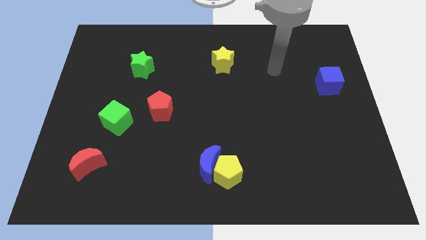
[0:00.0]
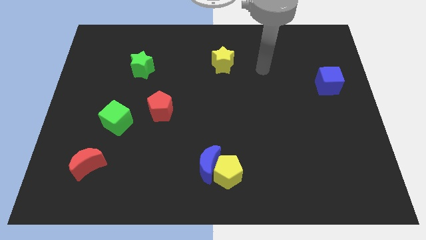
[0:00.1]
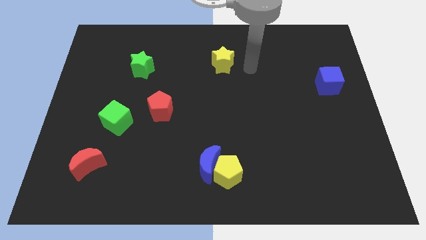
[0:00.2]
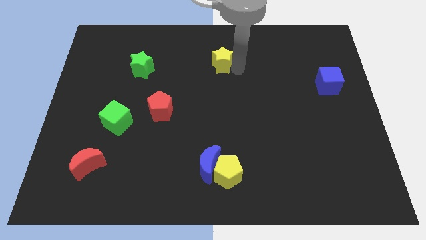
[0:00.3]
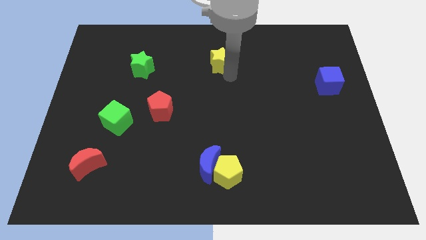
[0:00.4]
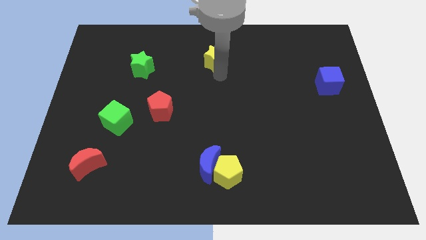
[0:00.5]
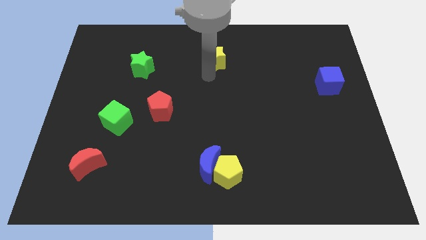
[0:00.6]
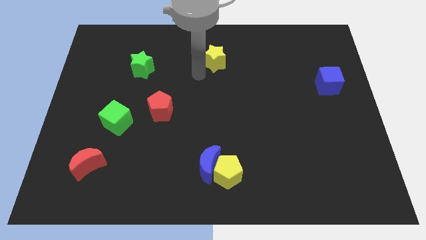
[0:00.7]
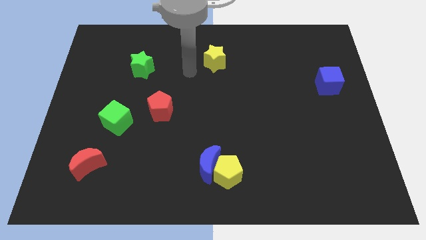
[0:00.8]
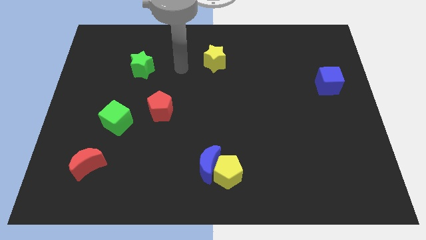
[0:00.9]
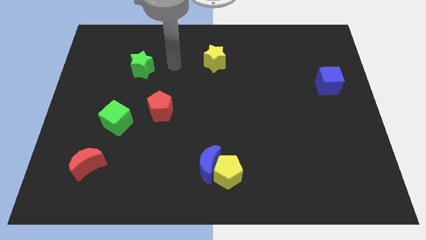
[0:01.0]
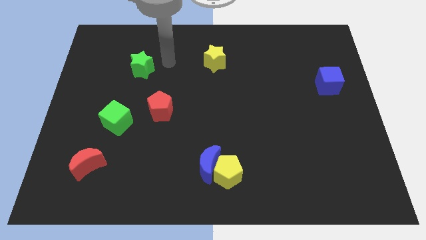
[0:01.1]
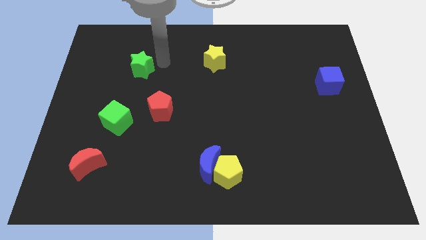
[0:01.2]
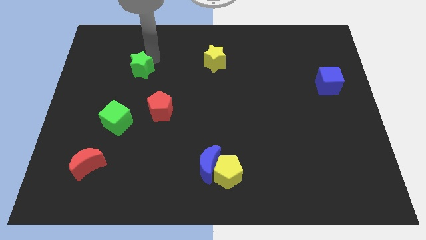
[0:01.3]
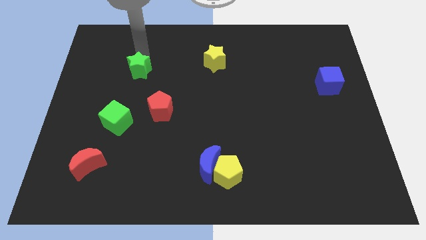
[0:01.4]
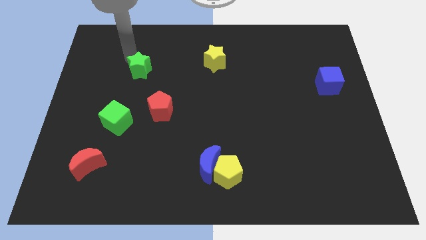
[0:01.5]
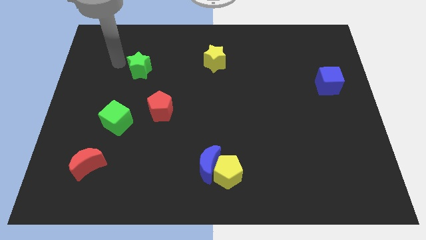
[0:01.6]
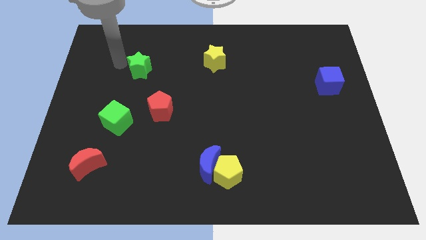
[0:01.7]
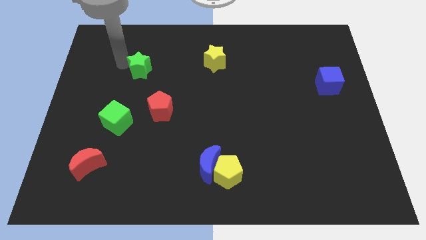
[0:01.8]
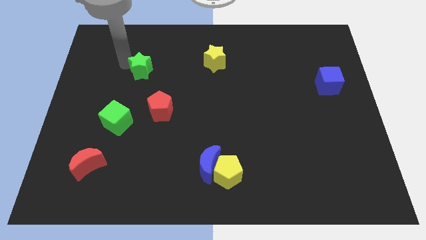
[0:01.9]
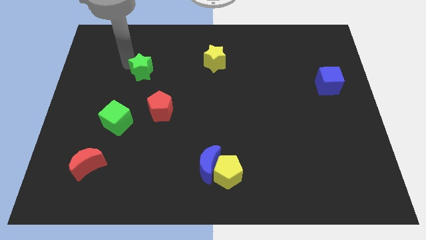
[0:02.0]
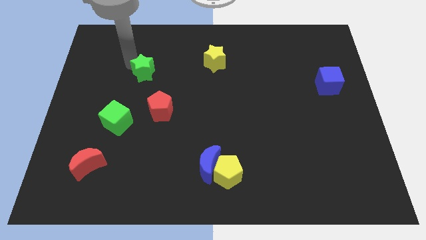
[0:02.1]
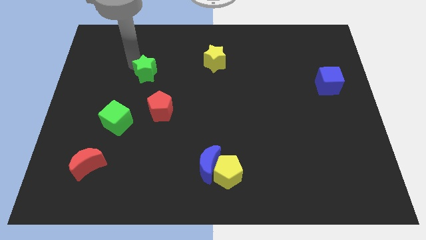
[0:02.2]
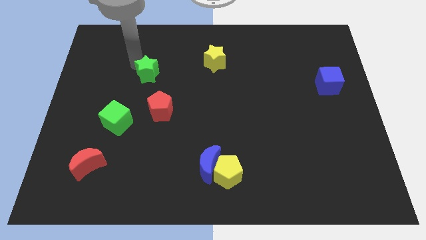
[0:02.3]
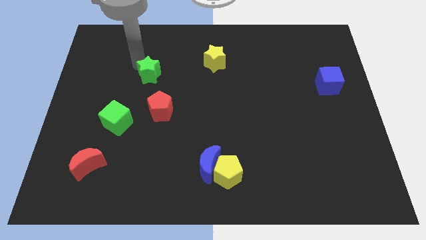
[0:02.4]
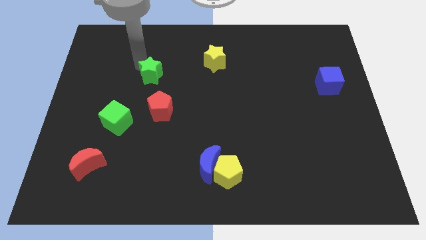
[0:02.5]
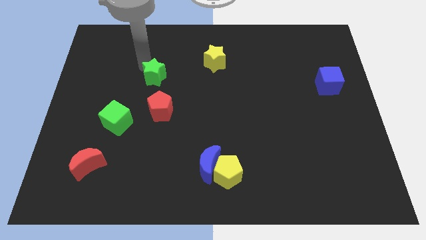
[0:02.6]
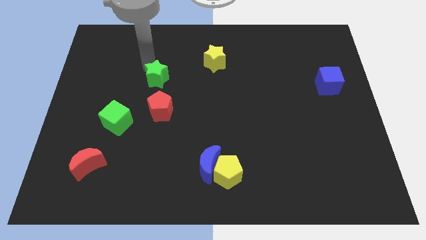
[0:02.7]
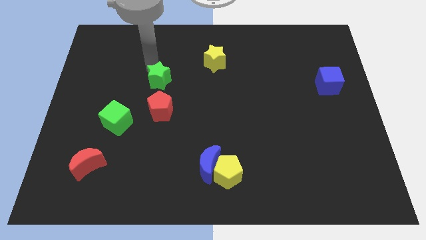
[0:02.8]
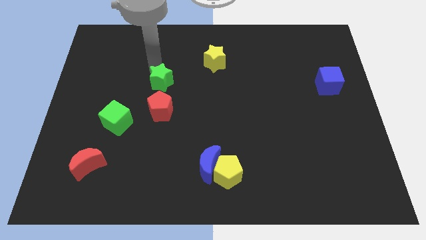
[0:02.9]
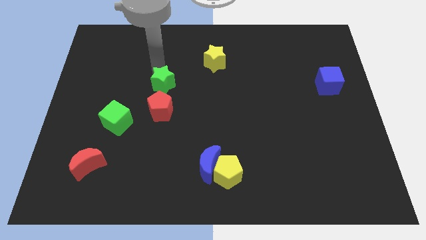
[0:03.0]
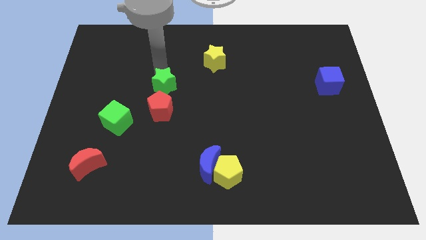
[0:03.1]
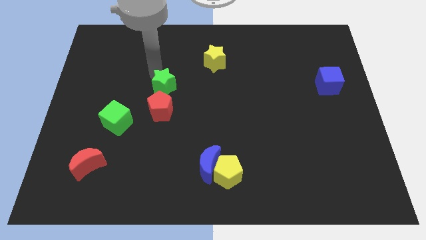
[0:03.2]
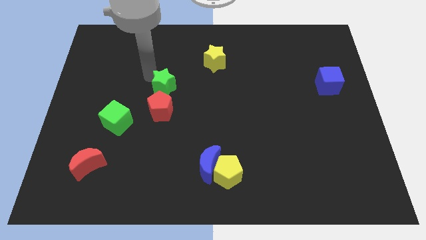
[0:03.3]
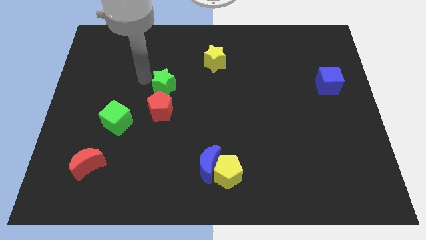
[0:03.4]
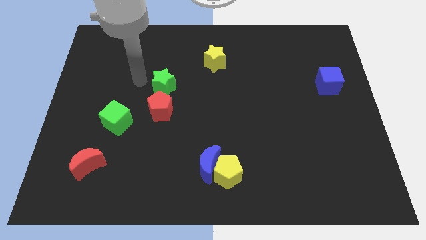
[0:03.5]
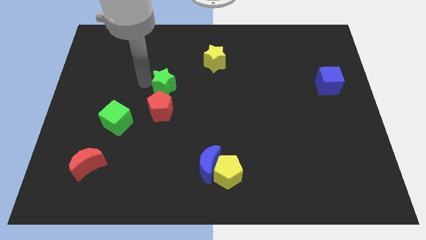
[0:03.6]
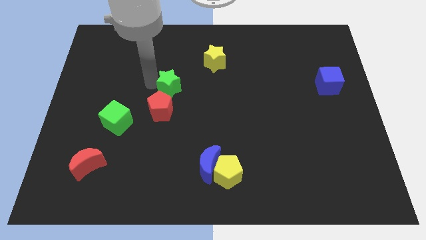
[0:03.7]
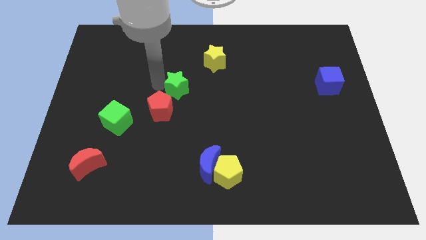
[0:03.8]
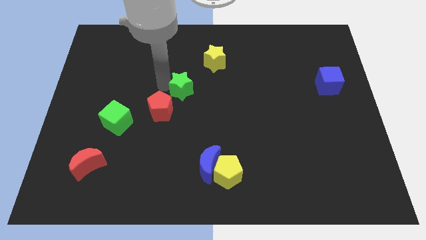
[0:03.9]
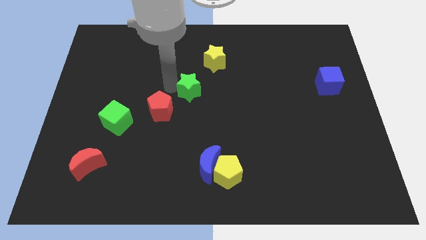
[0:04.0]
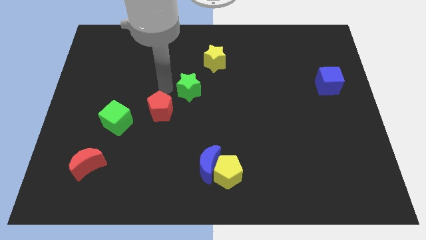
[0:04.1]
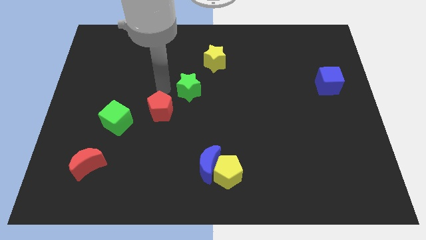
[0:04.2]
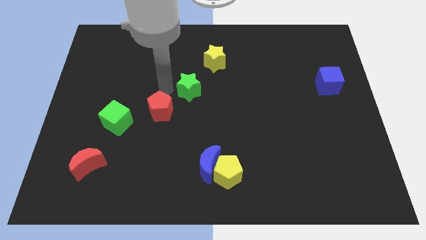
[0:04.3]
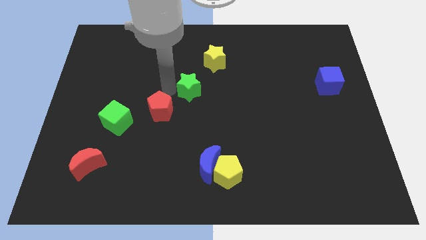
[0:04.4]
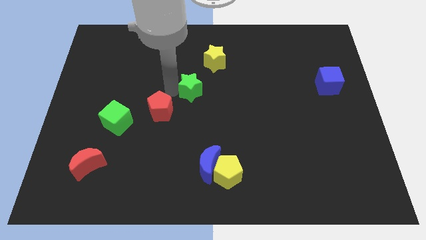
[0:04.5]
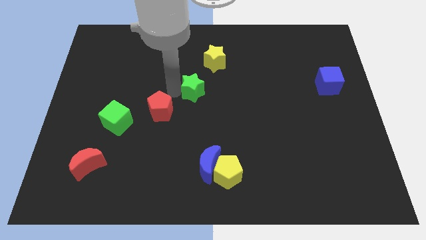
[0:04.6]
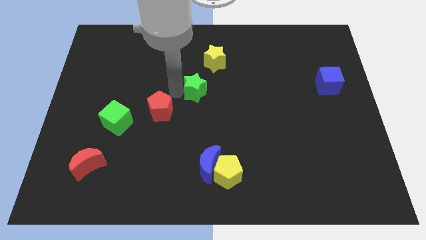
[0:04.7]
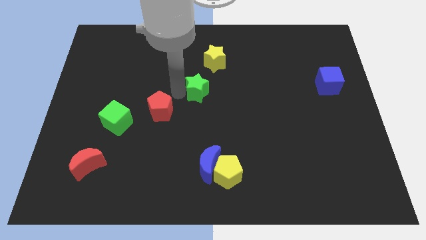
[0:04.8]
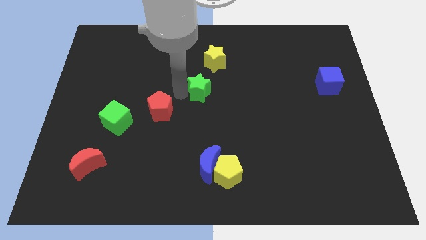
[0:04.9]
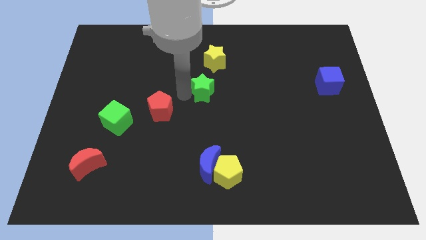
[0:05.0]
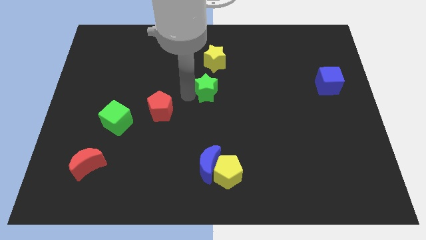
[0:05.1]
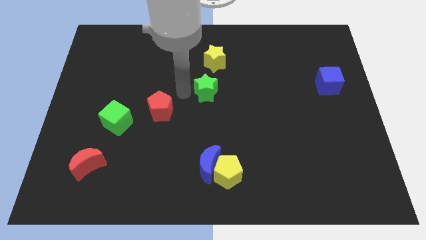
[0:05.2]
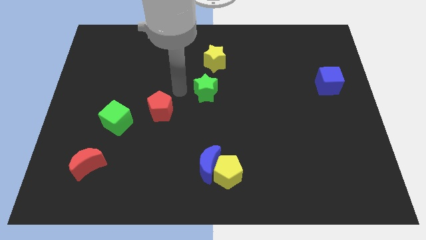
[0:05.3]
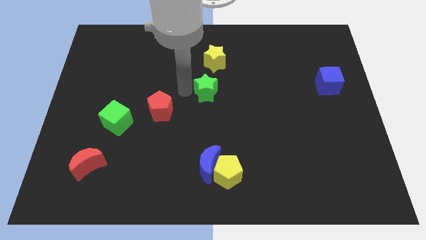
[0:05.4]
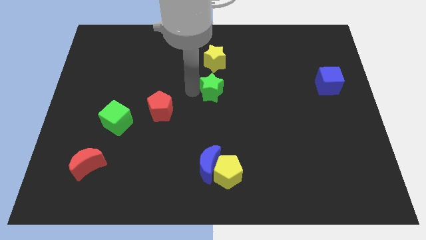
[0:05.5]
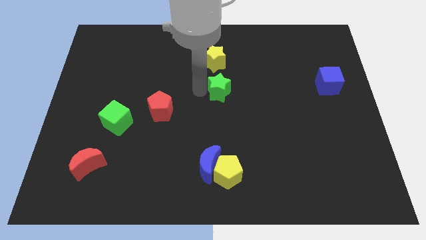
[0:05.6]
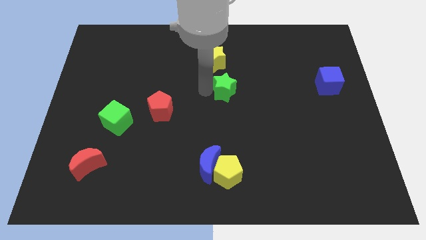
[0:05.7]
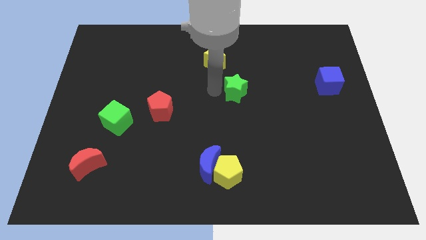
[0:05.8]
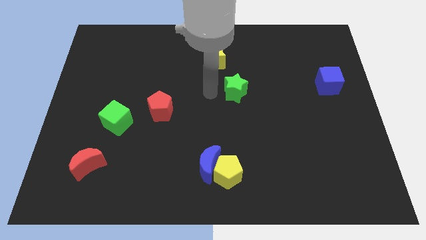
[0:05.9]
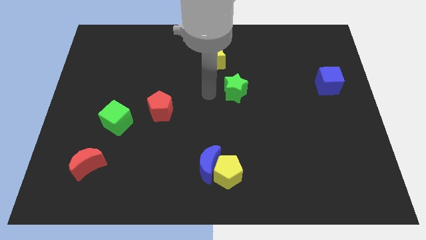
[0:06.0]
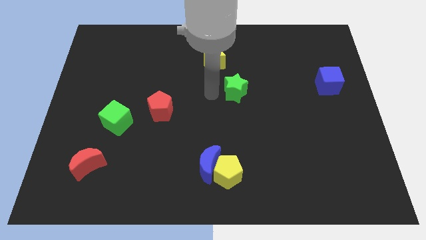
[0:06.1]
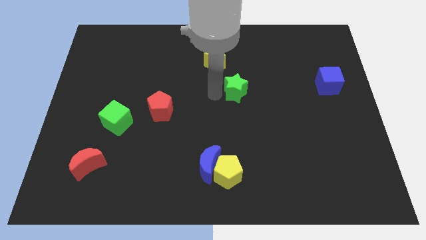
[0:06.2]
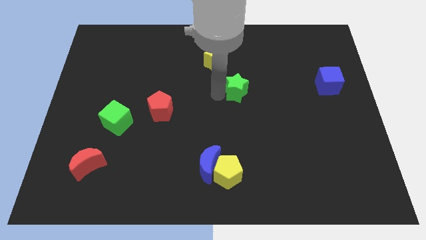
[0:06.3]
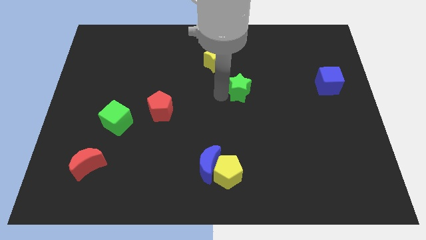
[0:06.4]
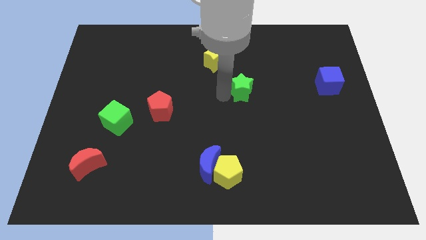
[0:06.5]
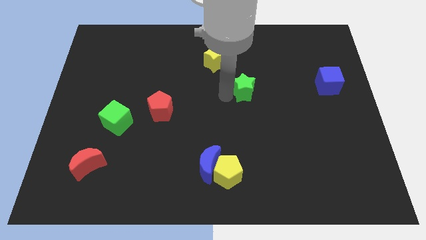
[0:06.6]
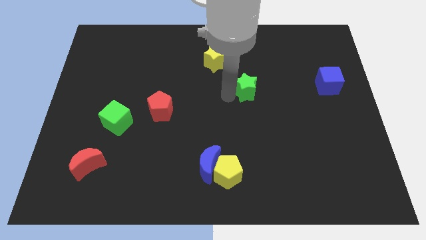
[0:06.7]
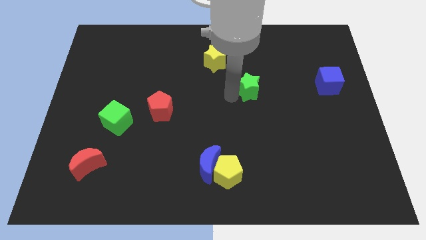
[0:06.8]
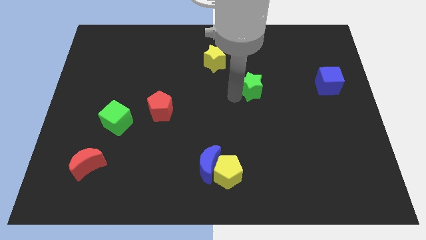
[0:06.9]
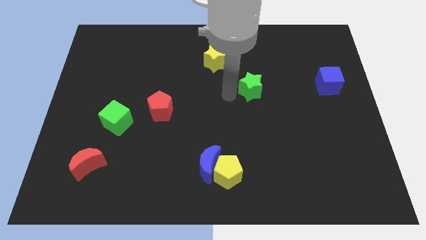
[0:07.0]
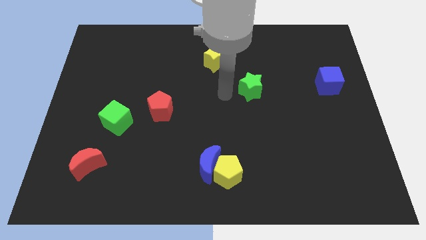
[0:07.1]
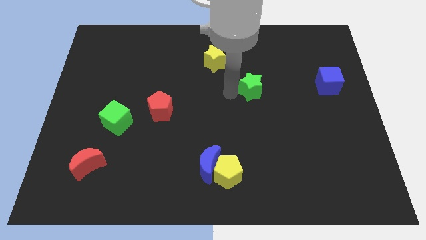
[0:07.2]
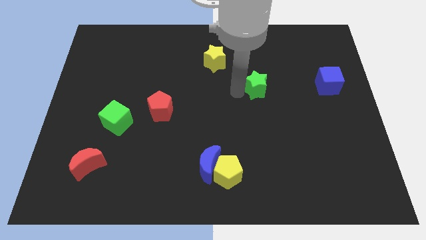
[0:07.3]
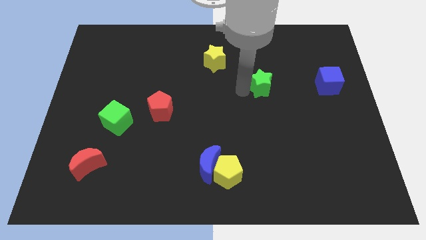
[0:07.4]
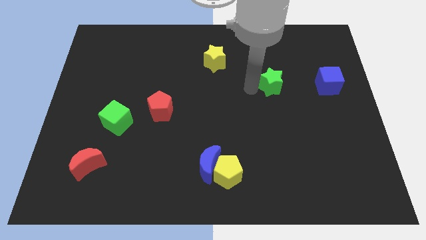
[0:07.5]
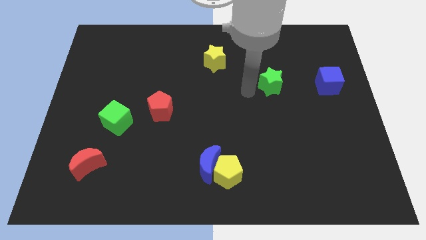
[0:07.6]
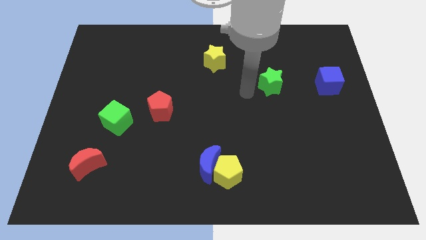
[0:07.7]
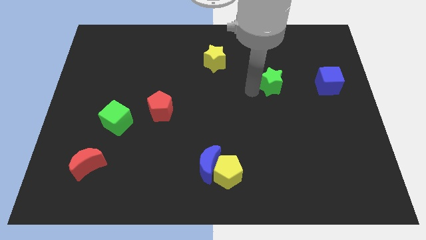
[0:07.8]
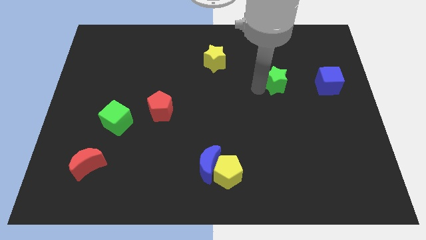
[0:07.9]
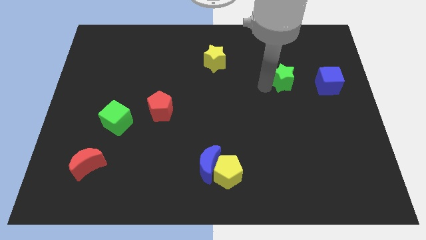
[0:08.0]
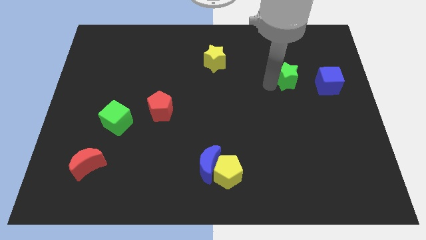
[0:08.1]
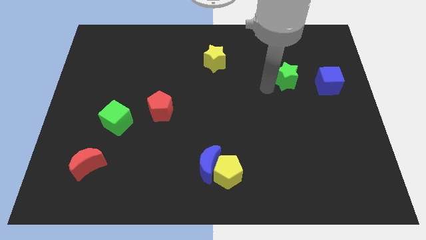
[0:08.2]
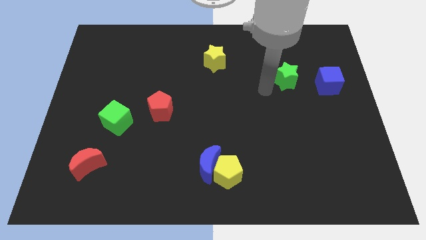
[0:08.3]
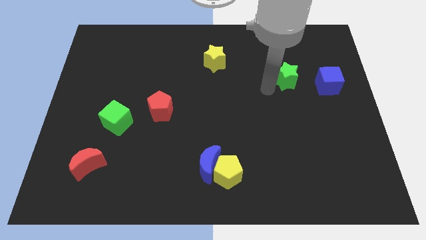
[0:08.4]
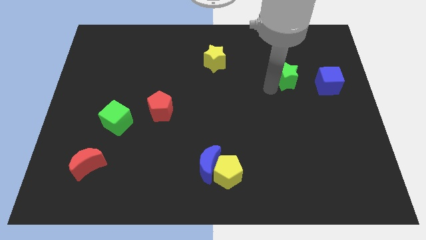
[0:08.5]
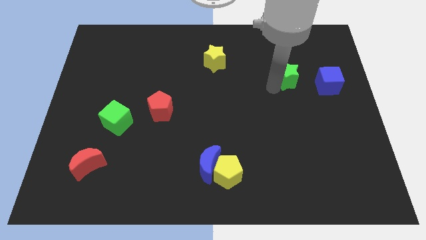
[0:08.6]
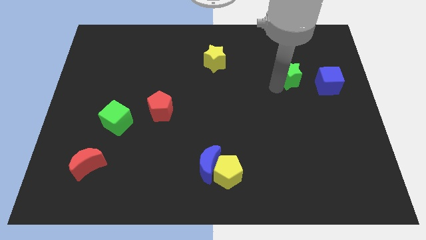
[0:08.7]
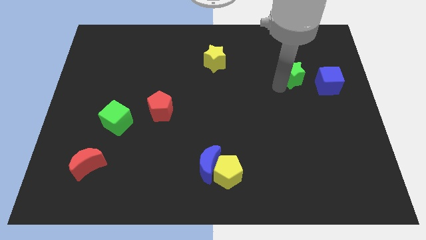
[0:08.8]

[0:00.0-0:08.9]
put the green star to the top left of the blue cube
